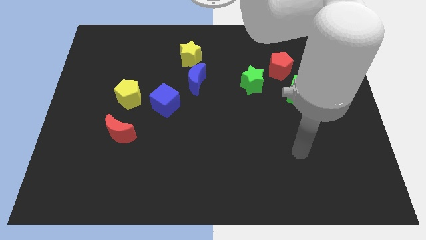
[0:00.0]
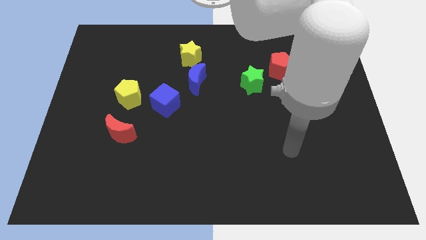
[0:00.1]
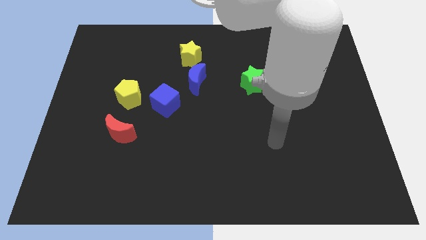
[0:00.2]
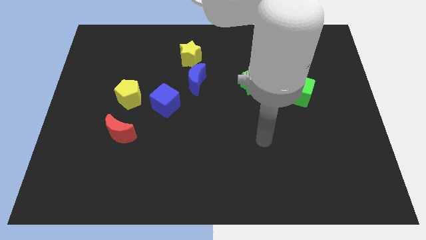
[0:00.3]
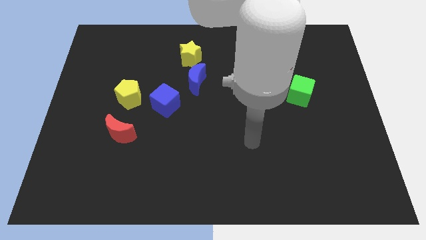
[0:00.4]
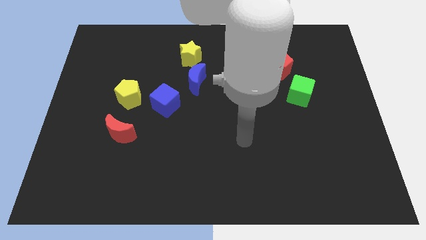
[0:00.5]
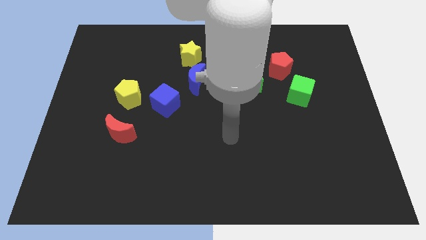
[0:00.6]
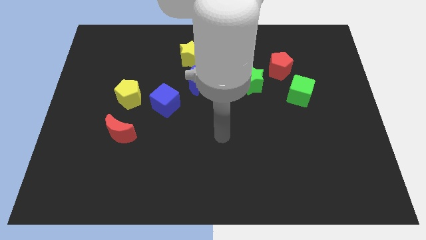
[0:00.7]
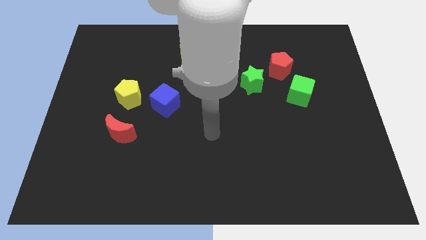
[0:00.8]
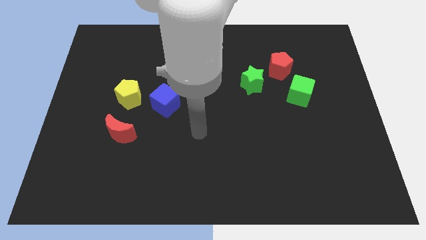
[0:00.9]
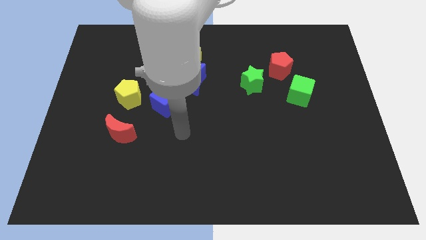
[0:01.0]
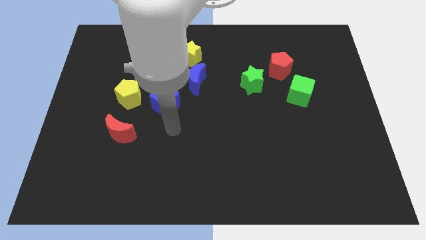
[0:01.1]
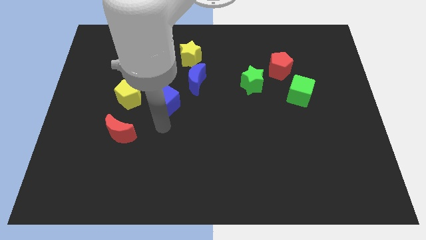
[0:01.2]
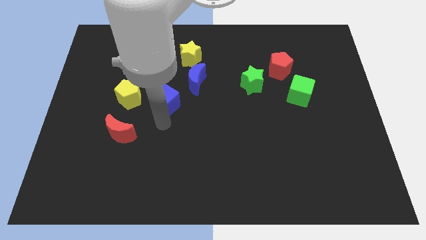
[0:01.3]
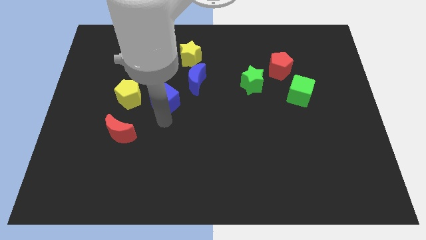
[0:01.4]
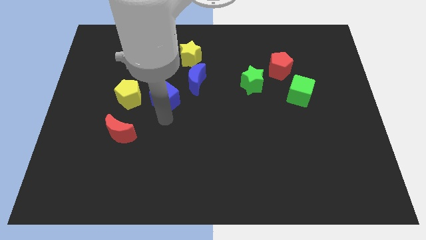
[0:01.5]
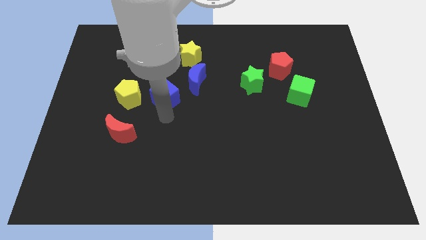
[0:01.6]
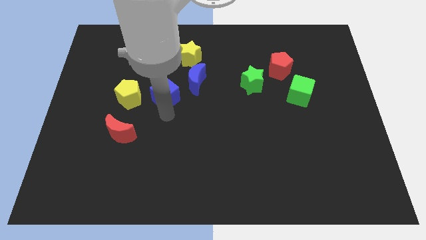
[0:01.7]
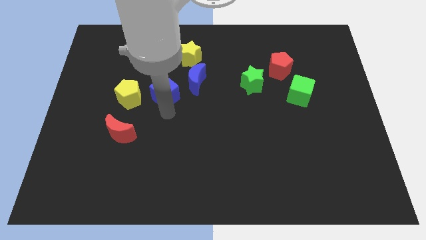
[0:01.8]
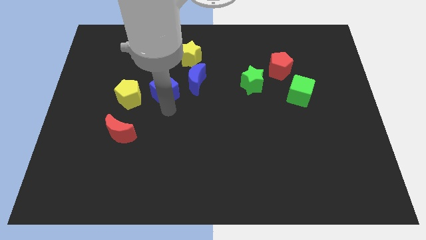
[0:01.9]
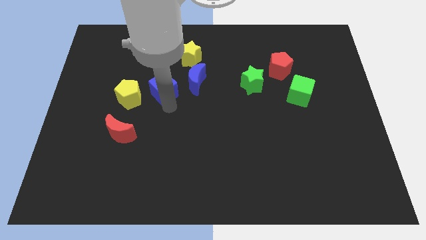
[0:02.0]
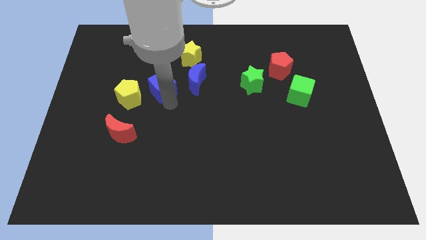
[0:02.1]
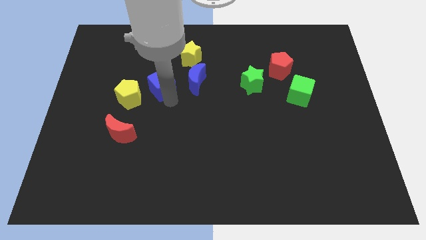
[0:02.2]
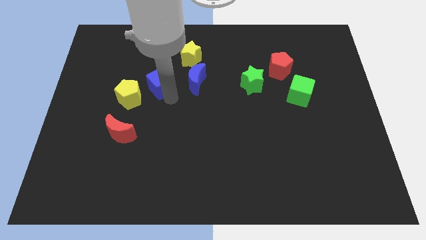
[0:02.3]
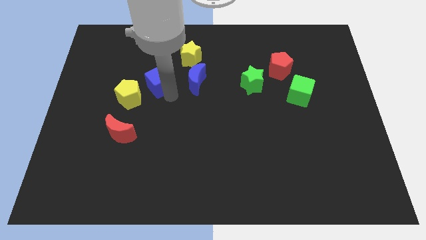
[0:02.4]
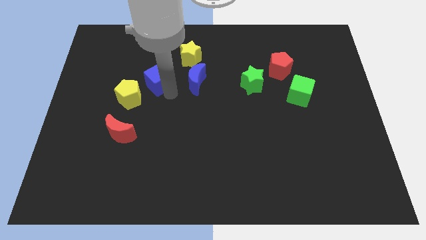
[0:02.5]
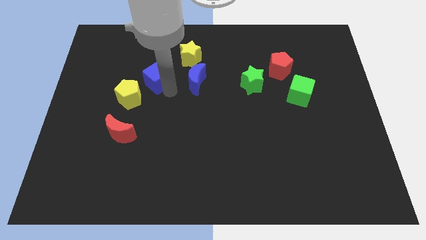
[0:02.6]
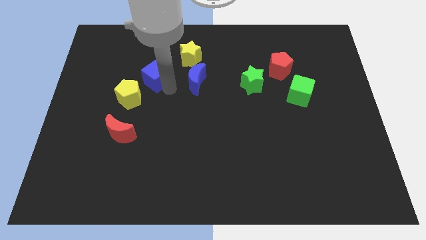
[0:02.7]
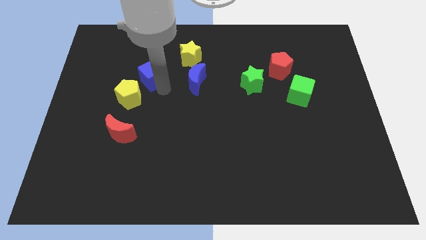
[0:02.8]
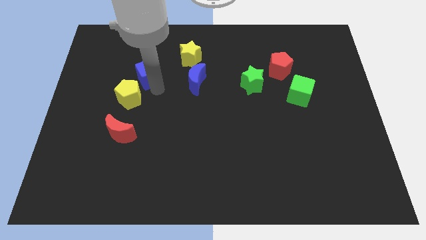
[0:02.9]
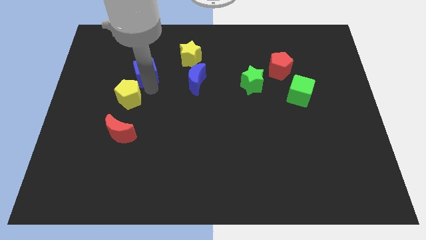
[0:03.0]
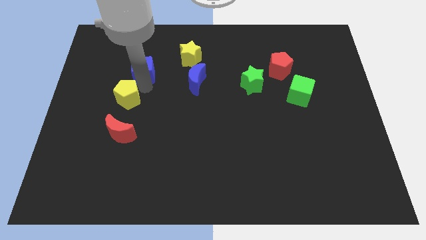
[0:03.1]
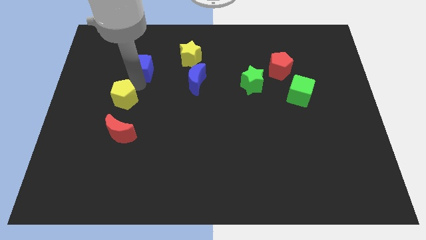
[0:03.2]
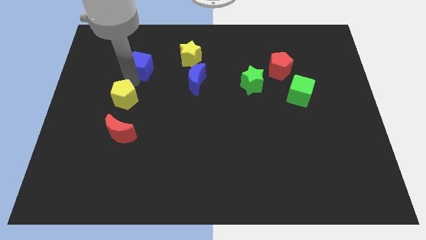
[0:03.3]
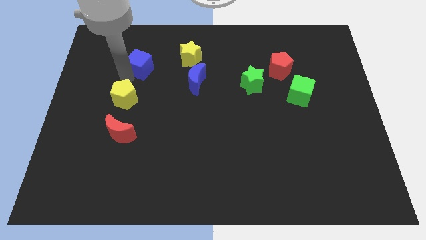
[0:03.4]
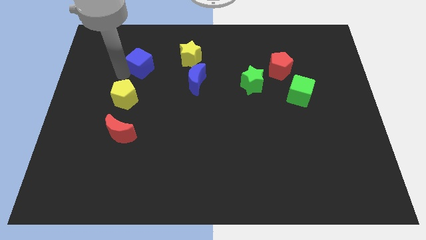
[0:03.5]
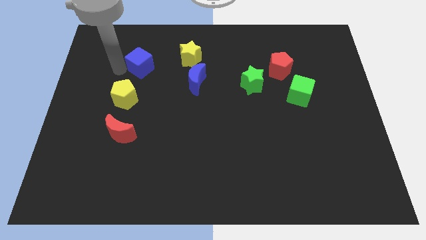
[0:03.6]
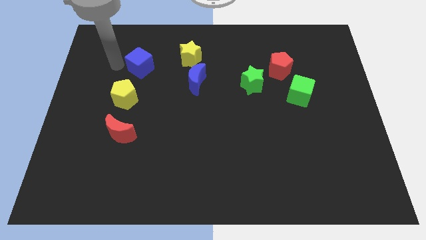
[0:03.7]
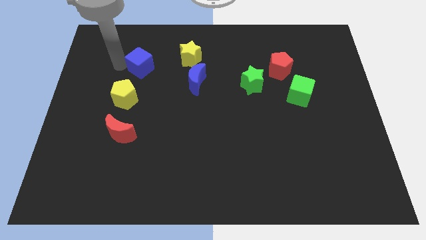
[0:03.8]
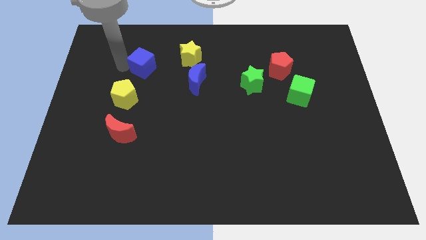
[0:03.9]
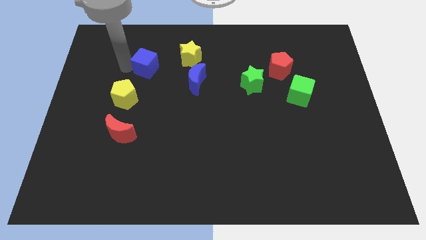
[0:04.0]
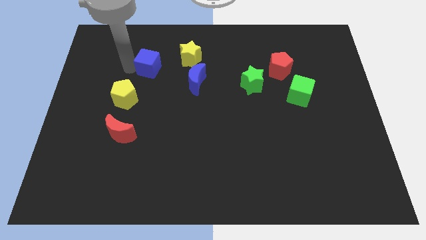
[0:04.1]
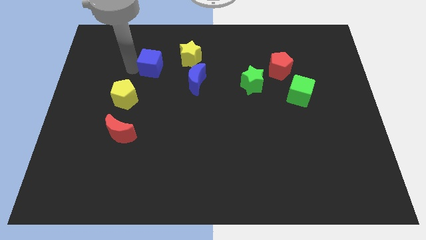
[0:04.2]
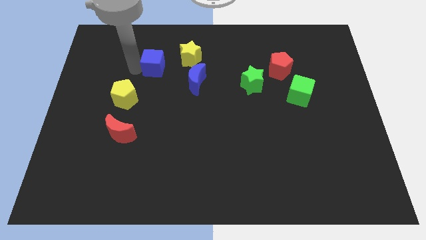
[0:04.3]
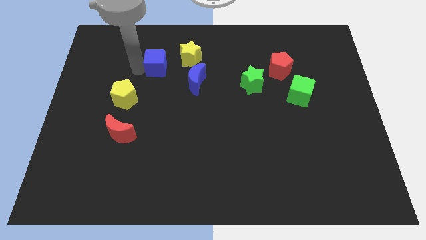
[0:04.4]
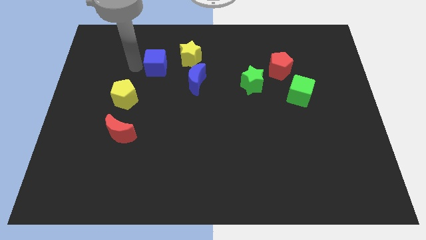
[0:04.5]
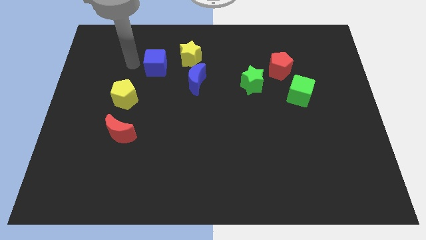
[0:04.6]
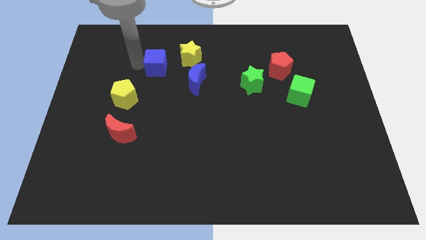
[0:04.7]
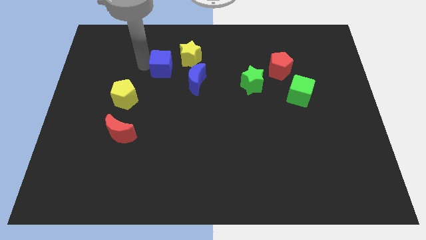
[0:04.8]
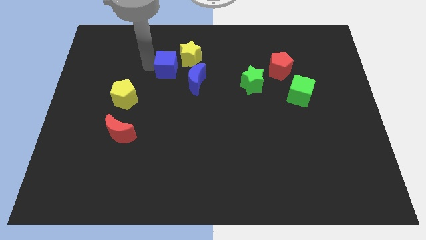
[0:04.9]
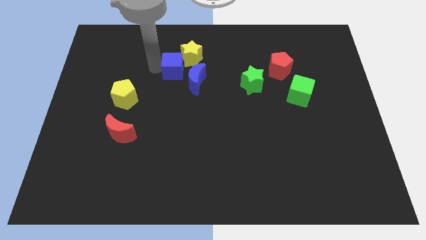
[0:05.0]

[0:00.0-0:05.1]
push the blue cube next to the yellow star

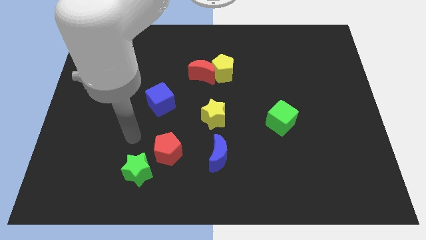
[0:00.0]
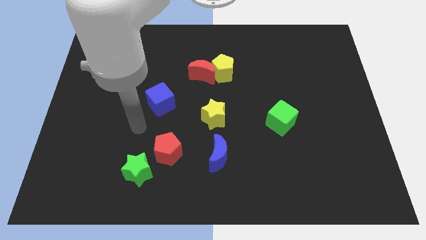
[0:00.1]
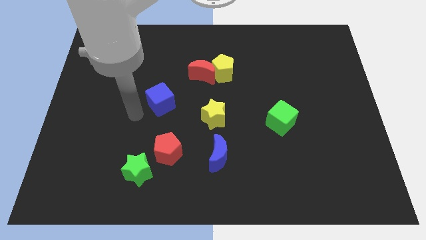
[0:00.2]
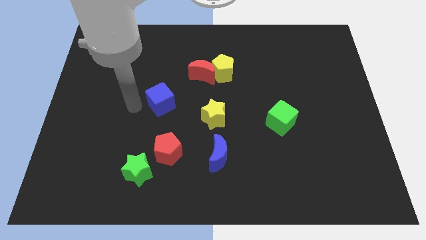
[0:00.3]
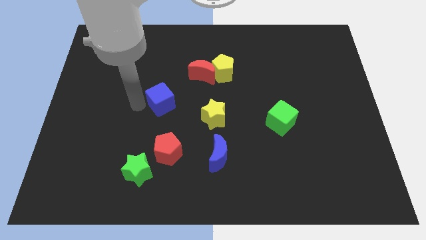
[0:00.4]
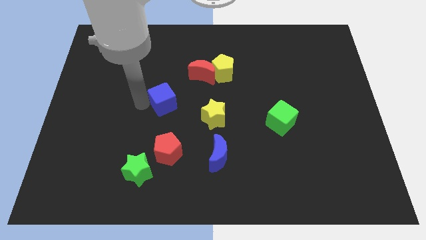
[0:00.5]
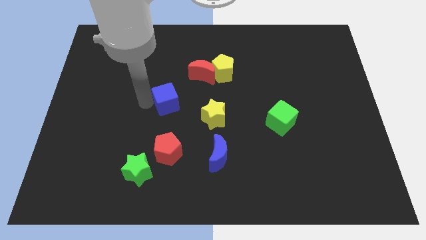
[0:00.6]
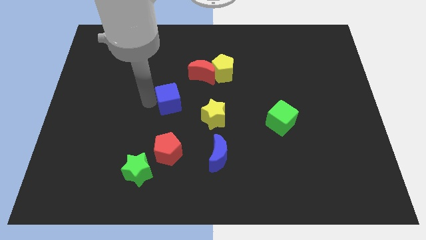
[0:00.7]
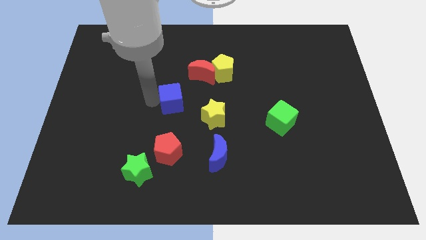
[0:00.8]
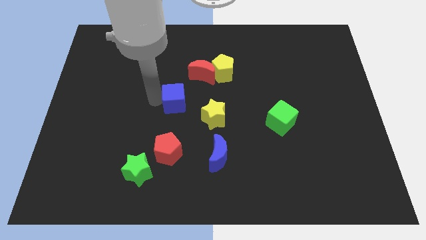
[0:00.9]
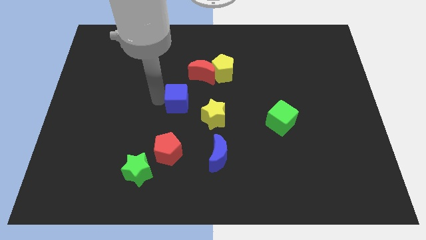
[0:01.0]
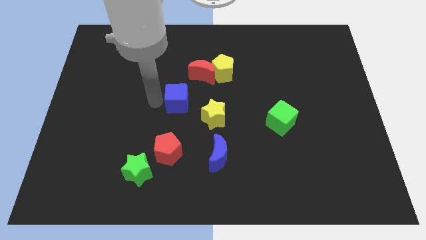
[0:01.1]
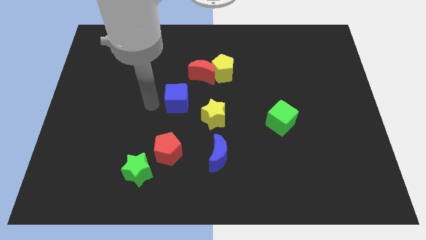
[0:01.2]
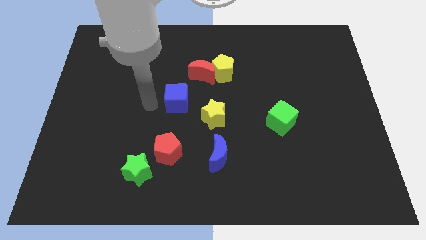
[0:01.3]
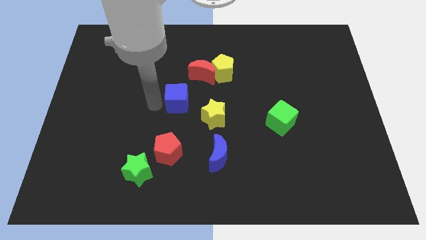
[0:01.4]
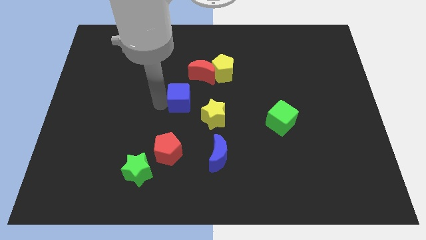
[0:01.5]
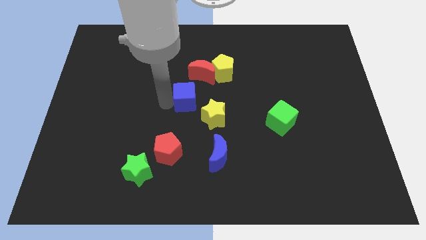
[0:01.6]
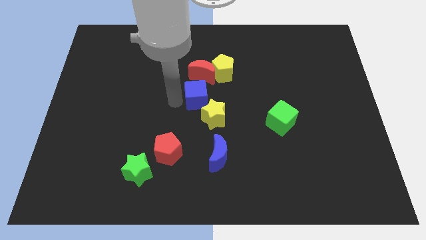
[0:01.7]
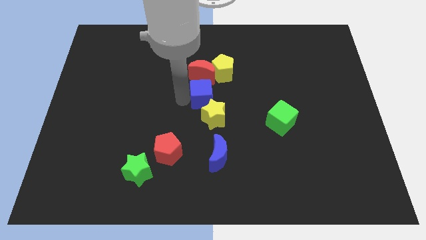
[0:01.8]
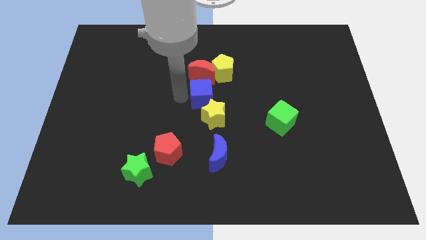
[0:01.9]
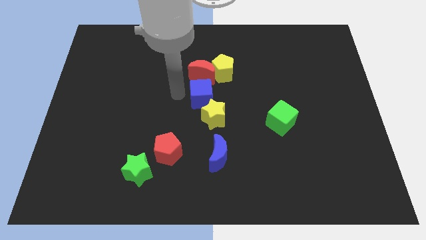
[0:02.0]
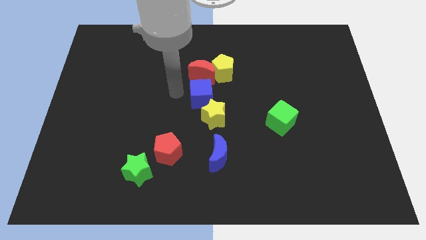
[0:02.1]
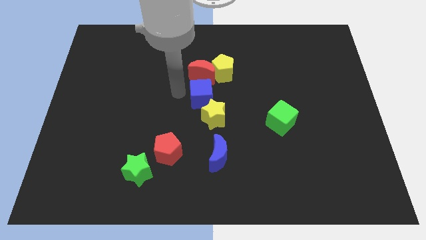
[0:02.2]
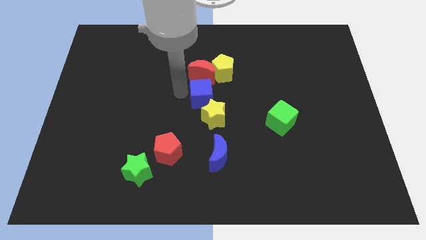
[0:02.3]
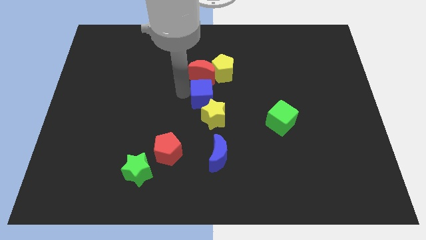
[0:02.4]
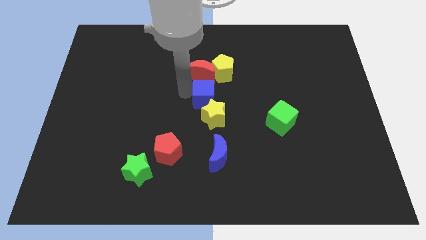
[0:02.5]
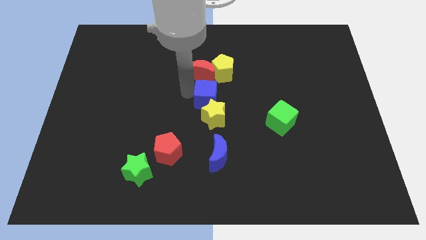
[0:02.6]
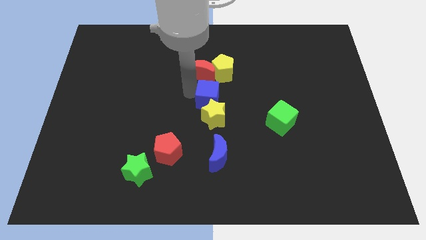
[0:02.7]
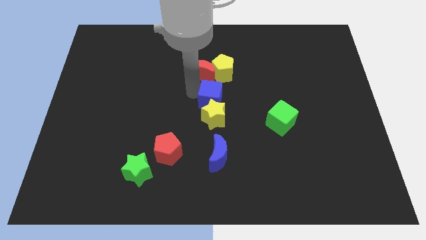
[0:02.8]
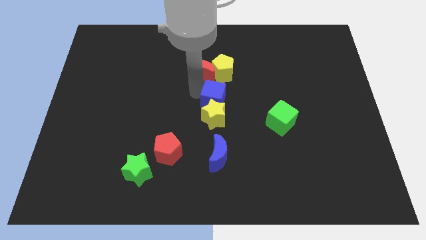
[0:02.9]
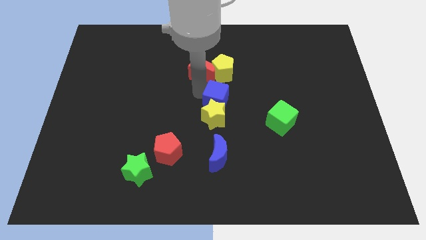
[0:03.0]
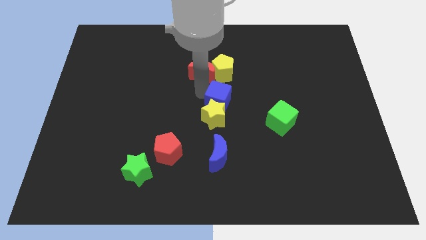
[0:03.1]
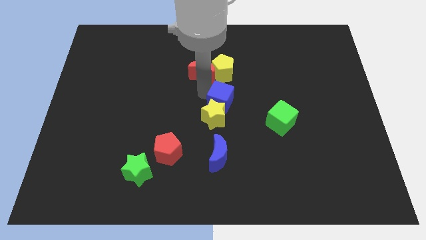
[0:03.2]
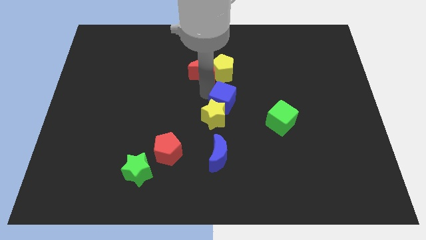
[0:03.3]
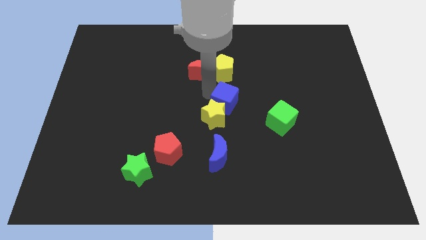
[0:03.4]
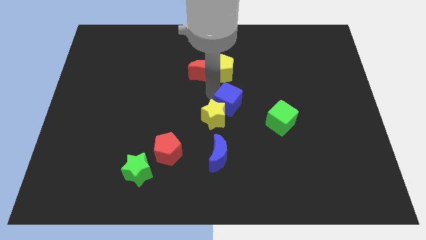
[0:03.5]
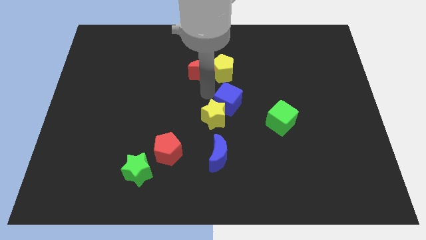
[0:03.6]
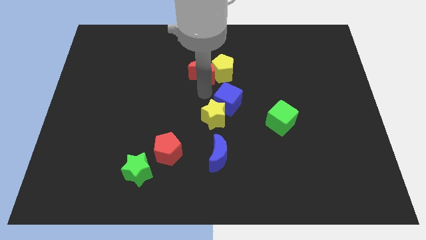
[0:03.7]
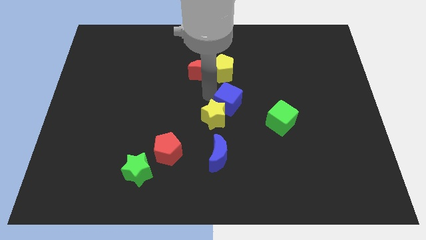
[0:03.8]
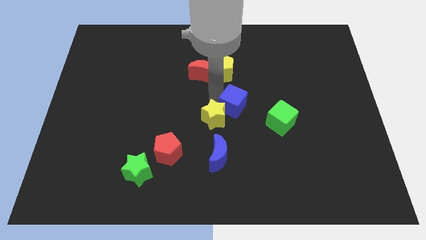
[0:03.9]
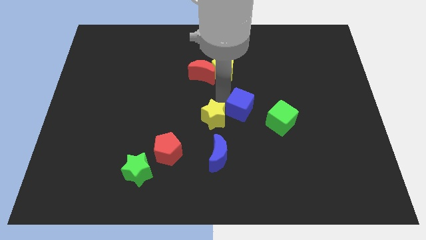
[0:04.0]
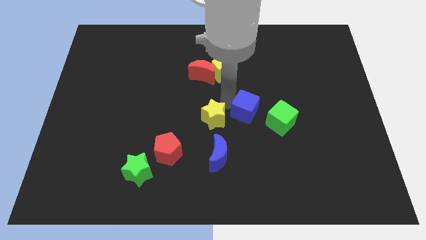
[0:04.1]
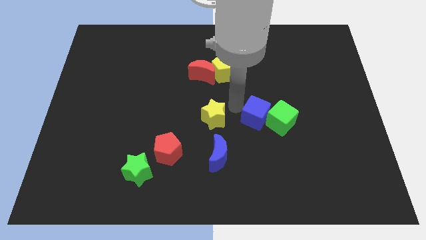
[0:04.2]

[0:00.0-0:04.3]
move the blue cube close to the green cube
